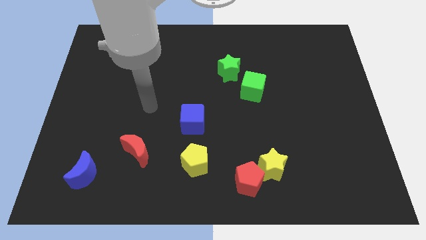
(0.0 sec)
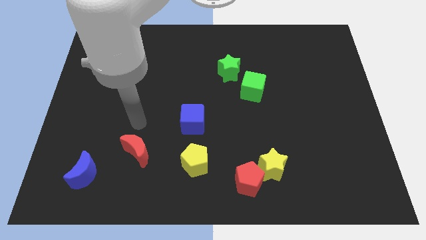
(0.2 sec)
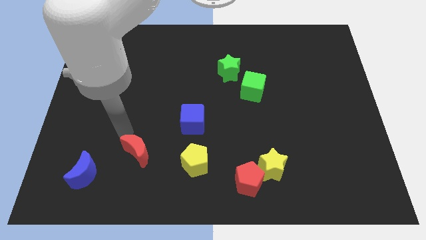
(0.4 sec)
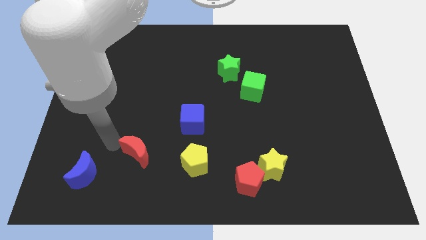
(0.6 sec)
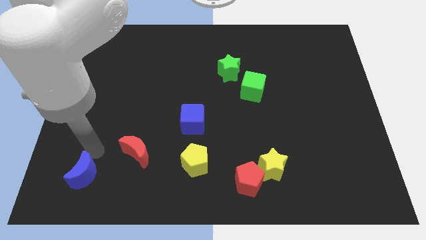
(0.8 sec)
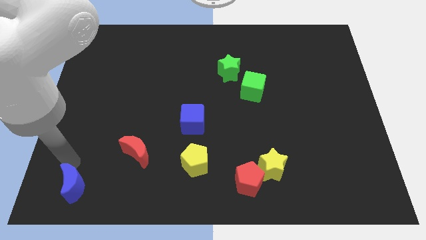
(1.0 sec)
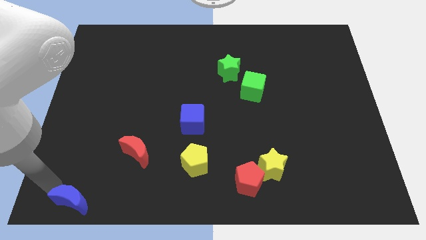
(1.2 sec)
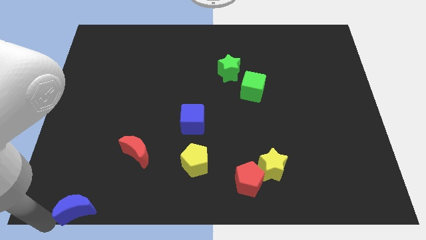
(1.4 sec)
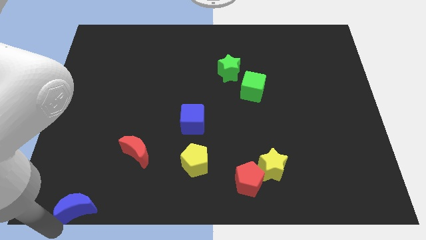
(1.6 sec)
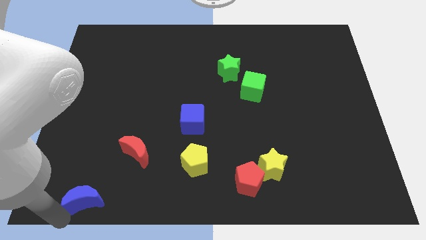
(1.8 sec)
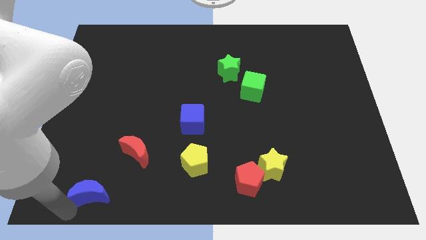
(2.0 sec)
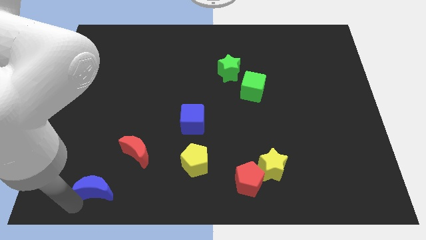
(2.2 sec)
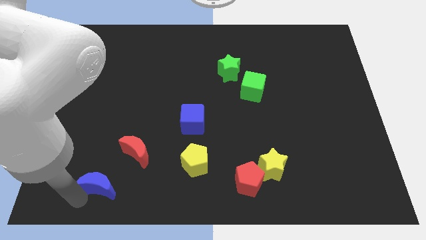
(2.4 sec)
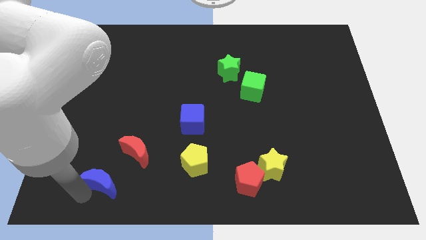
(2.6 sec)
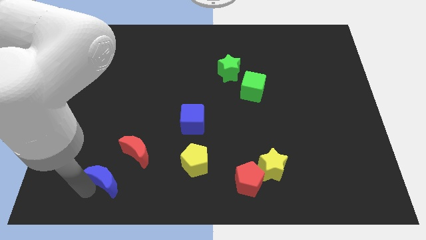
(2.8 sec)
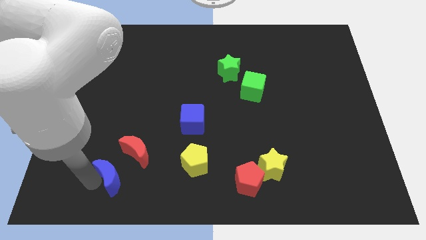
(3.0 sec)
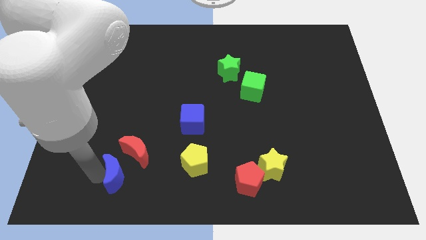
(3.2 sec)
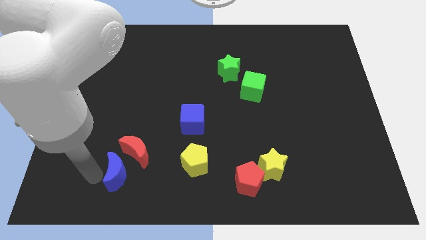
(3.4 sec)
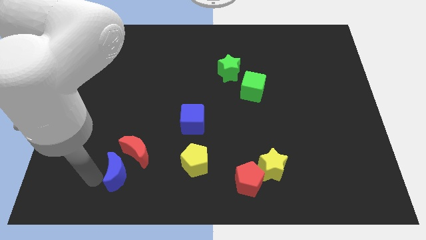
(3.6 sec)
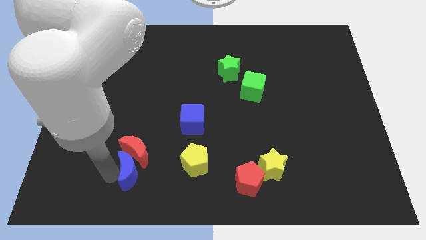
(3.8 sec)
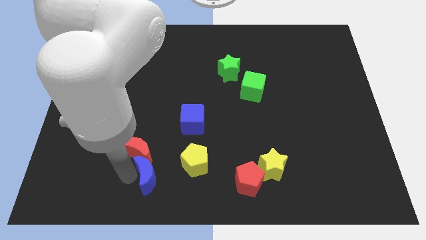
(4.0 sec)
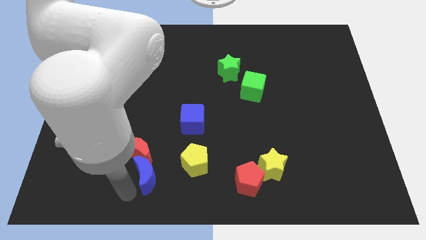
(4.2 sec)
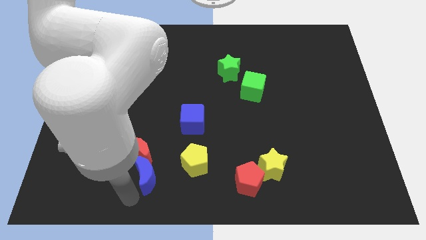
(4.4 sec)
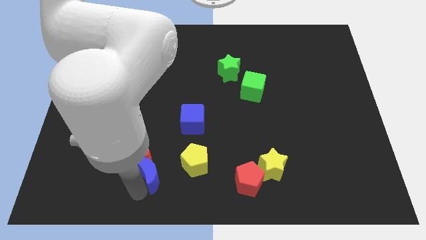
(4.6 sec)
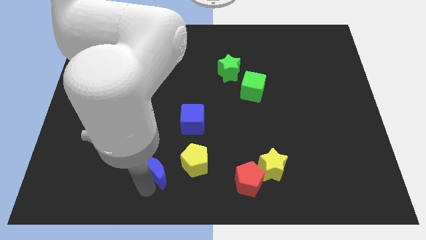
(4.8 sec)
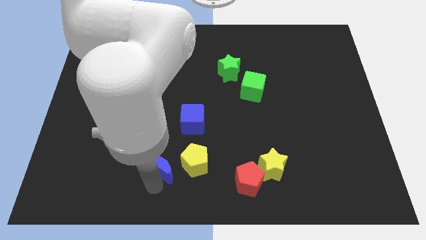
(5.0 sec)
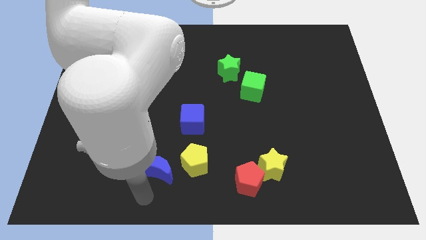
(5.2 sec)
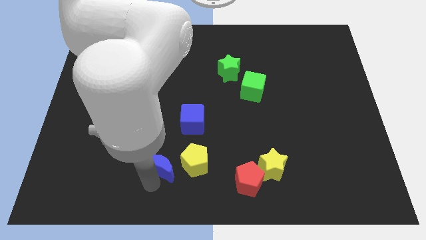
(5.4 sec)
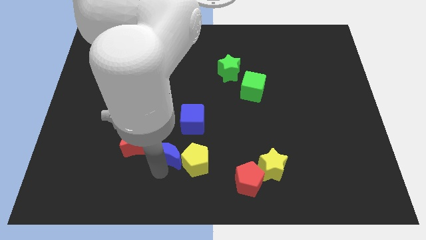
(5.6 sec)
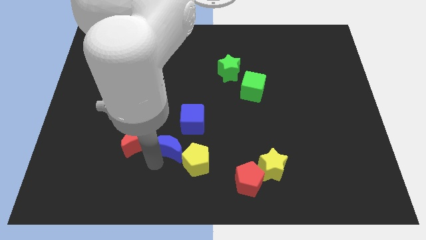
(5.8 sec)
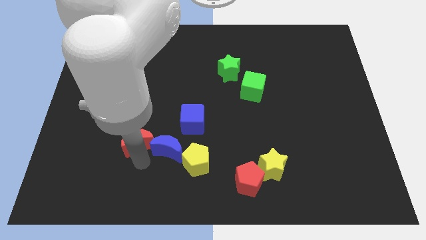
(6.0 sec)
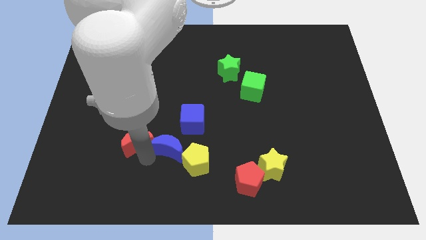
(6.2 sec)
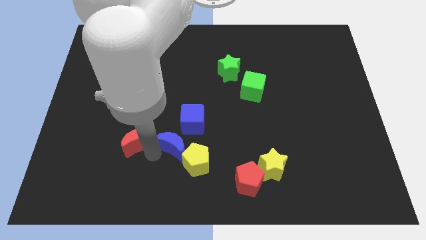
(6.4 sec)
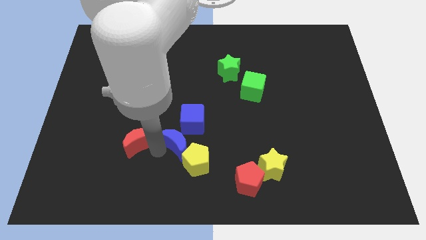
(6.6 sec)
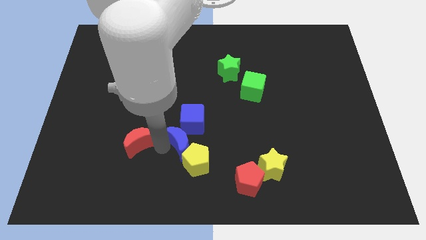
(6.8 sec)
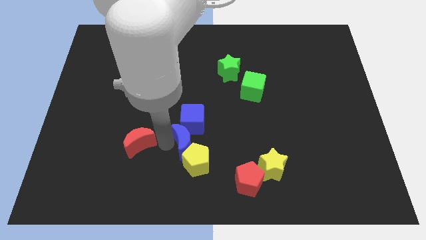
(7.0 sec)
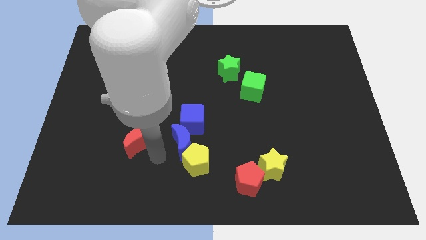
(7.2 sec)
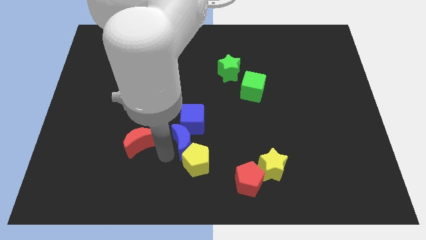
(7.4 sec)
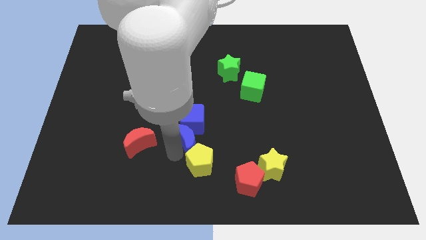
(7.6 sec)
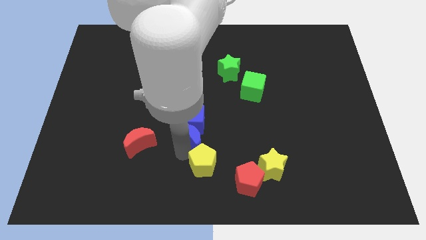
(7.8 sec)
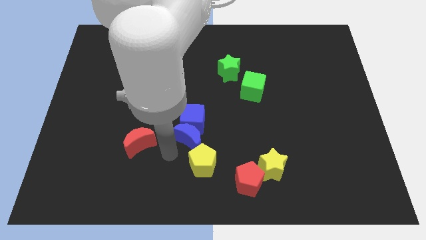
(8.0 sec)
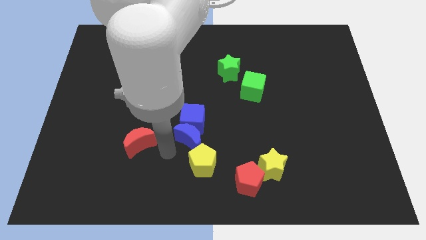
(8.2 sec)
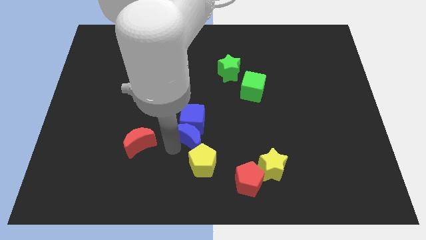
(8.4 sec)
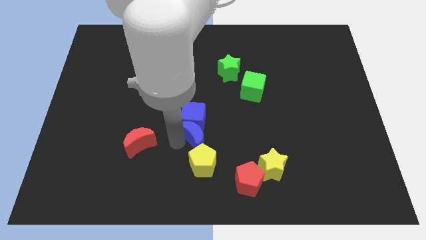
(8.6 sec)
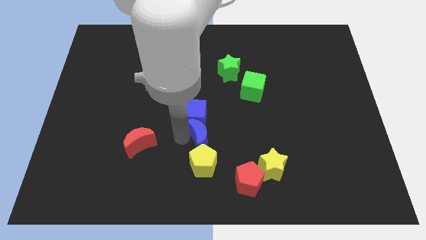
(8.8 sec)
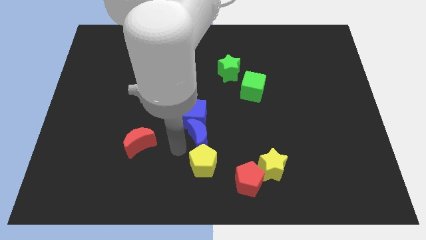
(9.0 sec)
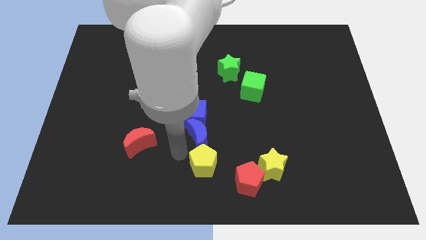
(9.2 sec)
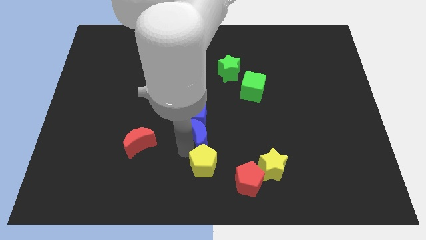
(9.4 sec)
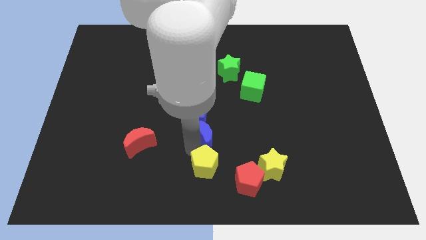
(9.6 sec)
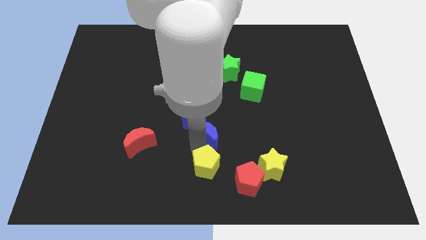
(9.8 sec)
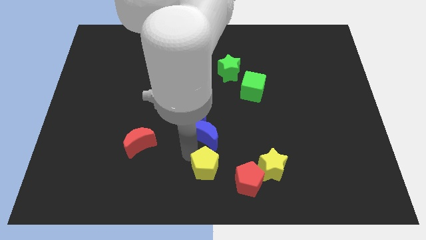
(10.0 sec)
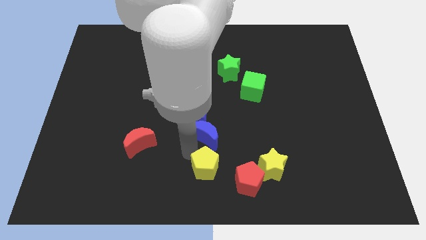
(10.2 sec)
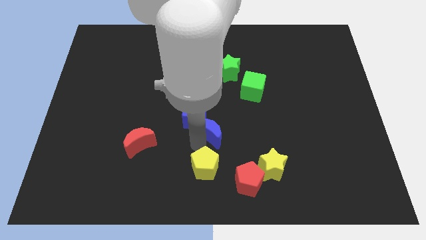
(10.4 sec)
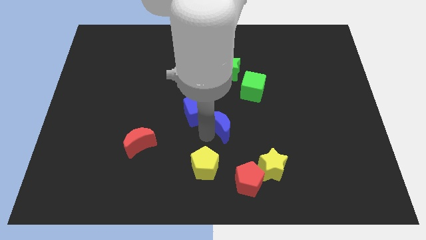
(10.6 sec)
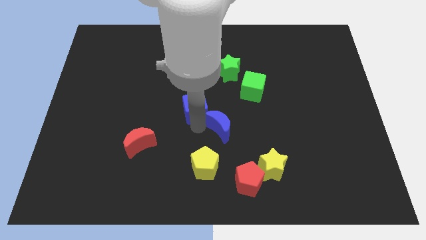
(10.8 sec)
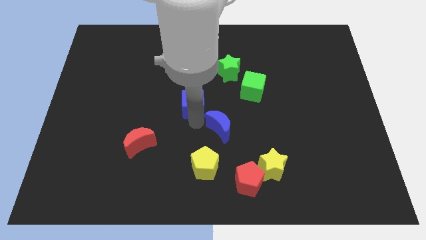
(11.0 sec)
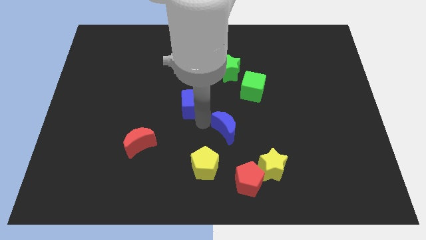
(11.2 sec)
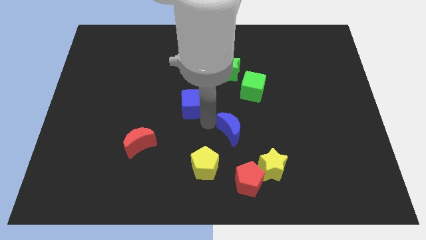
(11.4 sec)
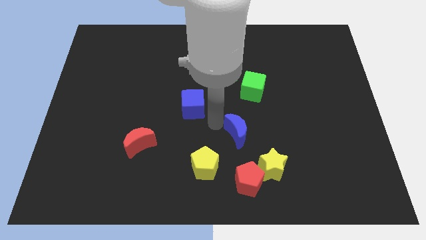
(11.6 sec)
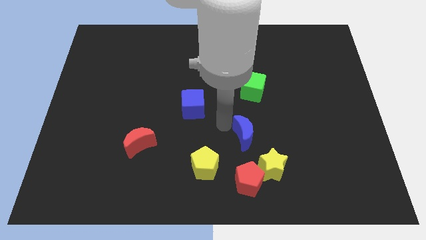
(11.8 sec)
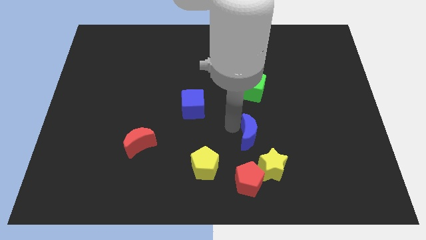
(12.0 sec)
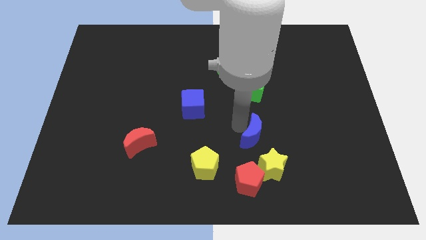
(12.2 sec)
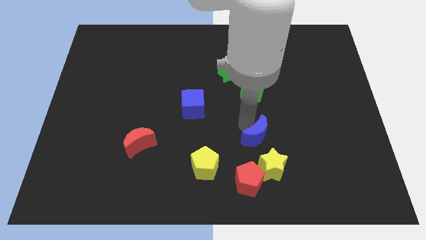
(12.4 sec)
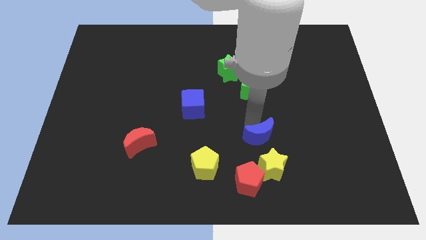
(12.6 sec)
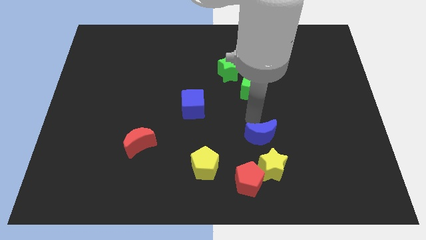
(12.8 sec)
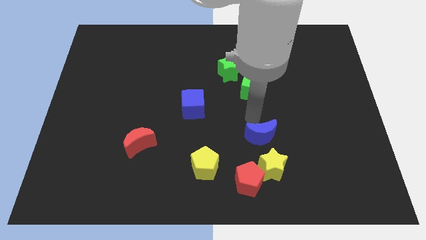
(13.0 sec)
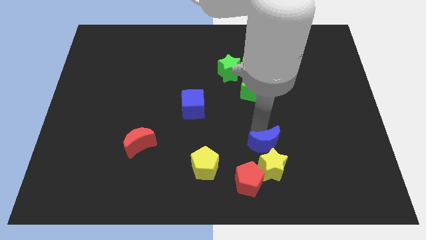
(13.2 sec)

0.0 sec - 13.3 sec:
push the blue moon to the top right side of the red pentagon

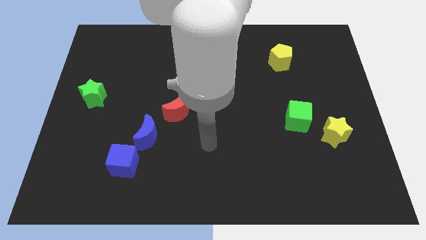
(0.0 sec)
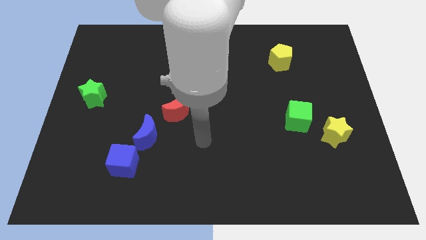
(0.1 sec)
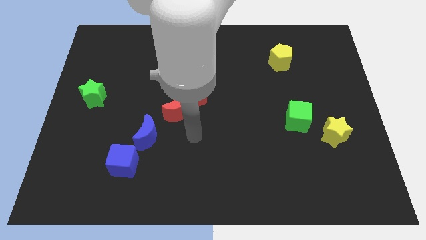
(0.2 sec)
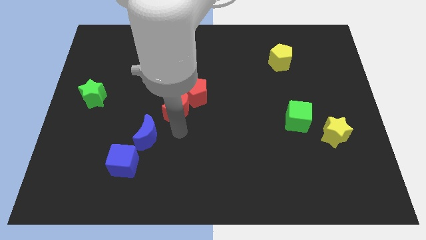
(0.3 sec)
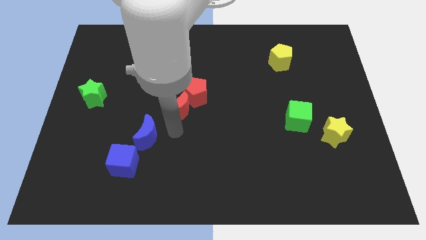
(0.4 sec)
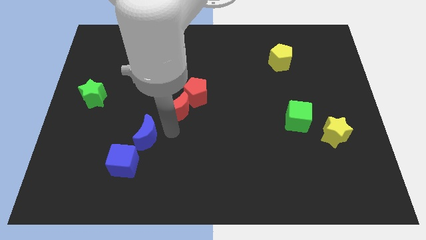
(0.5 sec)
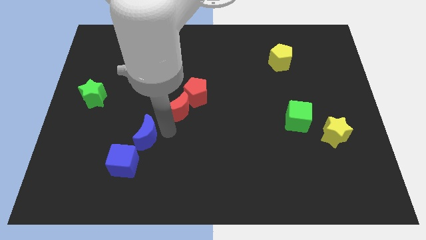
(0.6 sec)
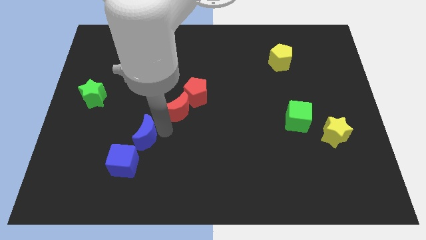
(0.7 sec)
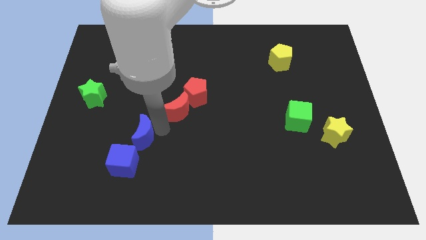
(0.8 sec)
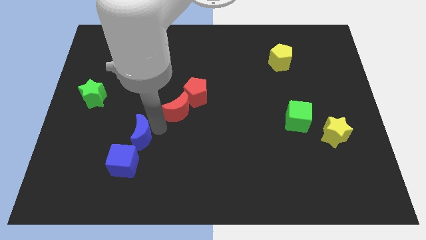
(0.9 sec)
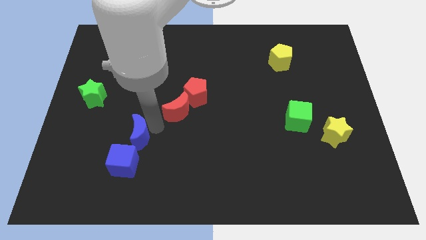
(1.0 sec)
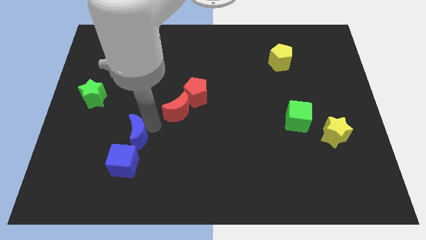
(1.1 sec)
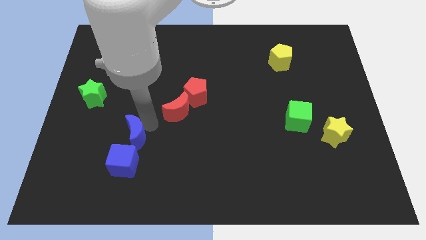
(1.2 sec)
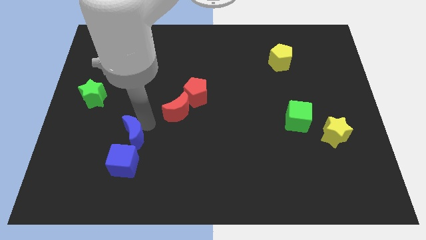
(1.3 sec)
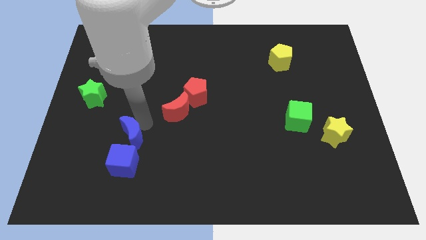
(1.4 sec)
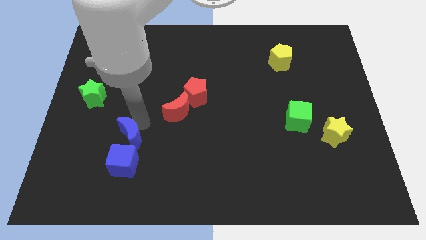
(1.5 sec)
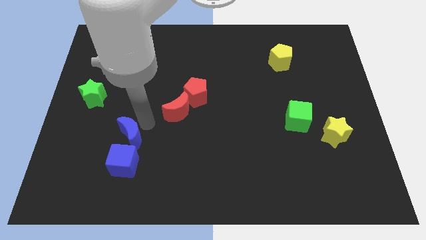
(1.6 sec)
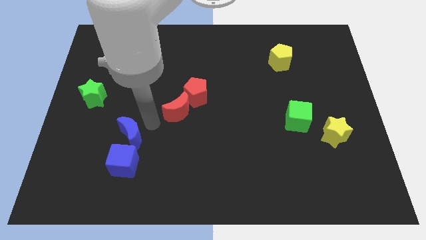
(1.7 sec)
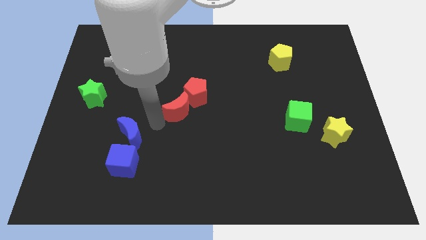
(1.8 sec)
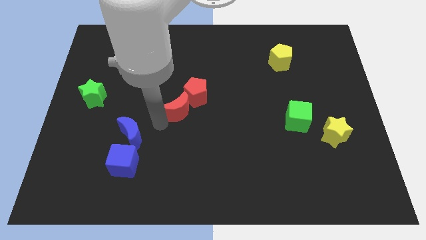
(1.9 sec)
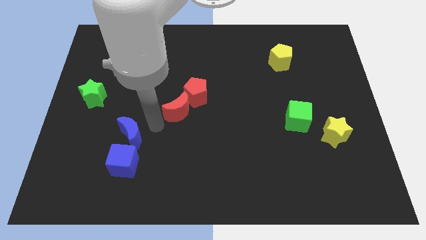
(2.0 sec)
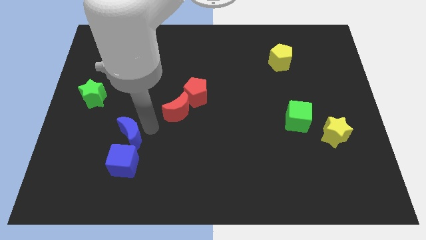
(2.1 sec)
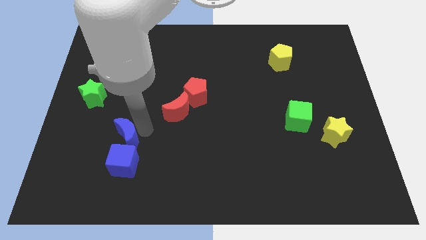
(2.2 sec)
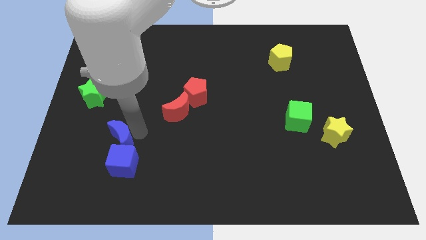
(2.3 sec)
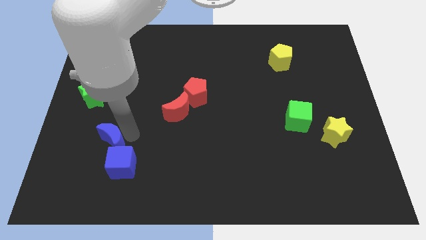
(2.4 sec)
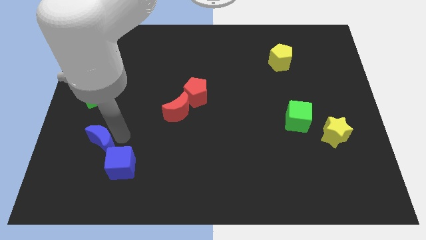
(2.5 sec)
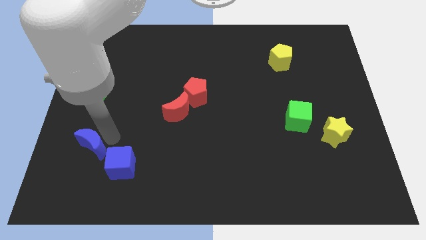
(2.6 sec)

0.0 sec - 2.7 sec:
move the blue moon just left of the blue cube
